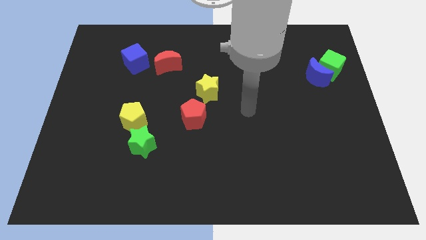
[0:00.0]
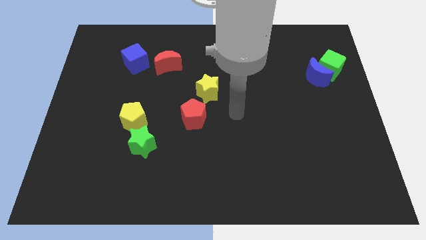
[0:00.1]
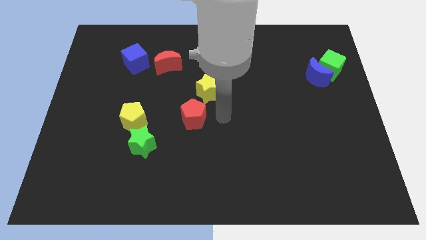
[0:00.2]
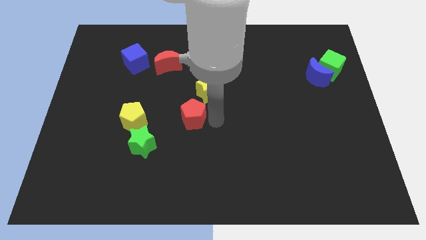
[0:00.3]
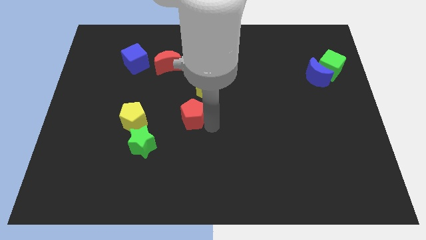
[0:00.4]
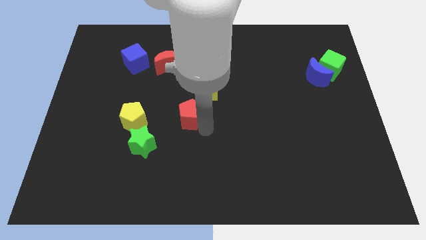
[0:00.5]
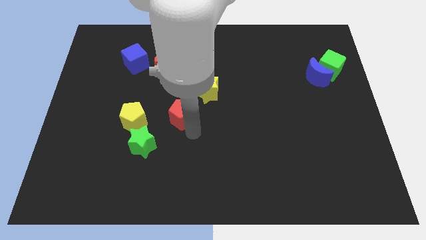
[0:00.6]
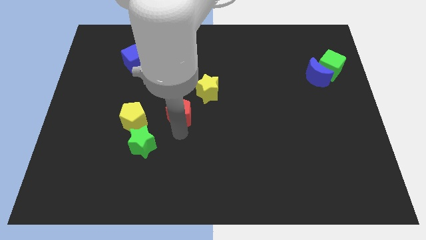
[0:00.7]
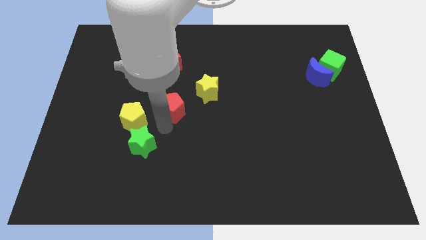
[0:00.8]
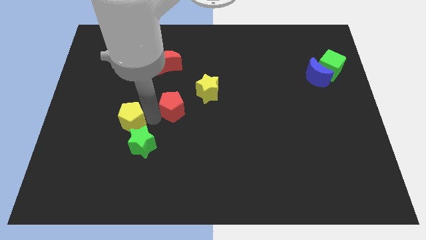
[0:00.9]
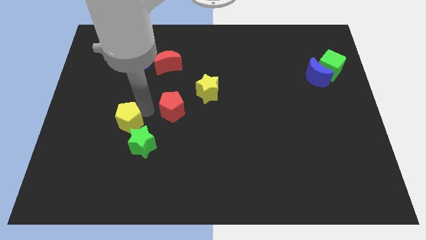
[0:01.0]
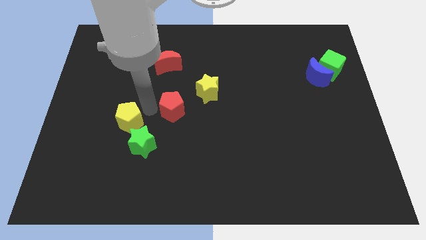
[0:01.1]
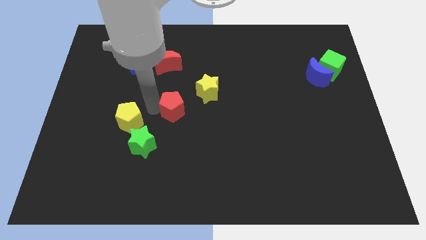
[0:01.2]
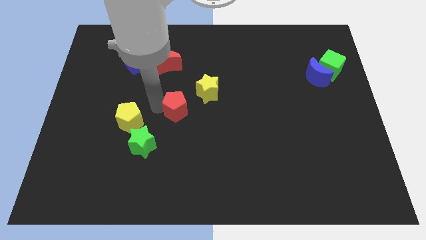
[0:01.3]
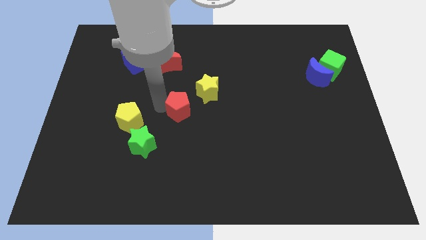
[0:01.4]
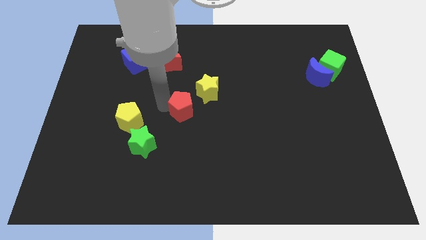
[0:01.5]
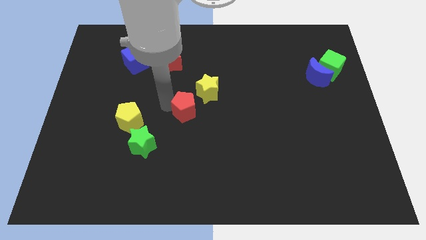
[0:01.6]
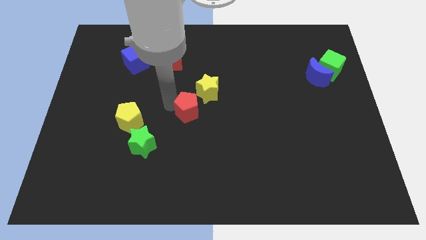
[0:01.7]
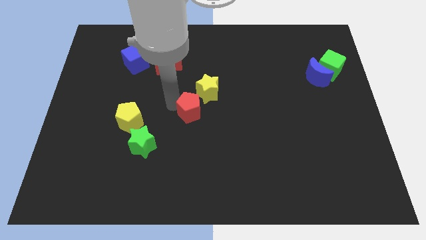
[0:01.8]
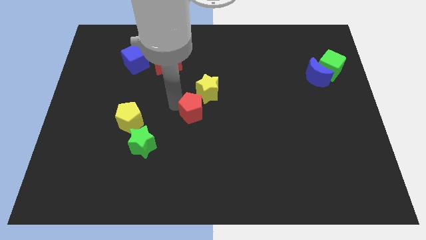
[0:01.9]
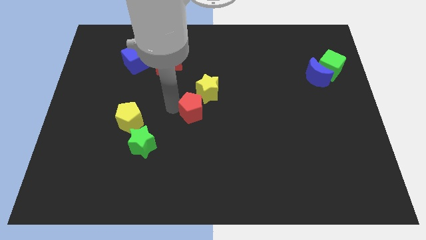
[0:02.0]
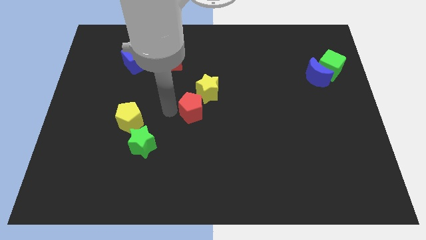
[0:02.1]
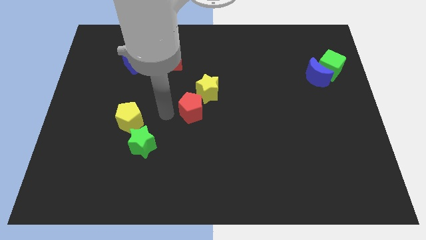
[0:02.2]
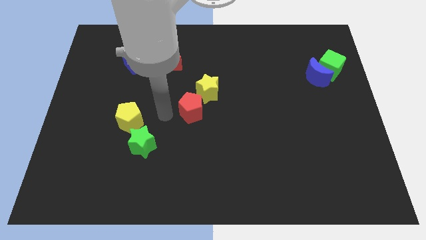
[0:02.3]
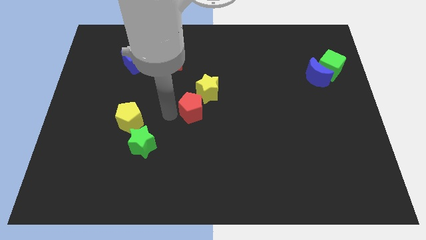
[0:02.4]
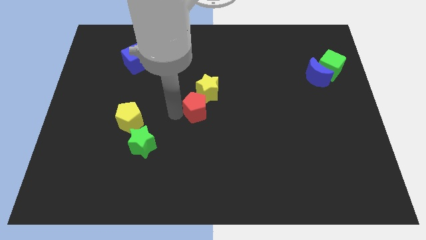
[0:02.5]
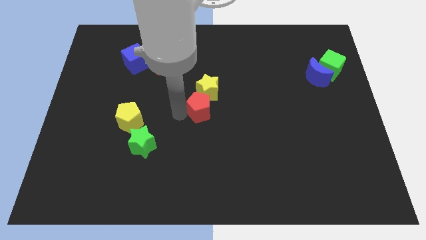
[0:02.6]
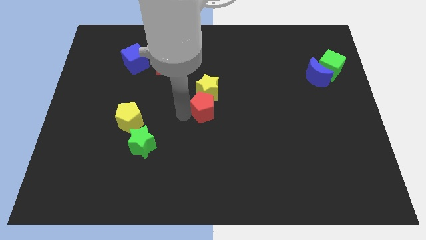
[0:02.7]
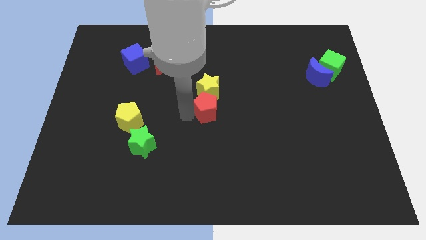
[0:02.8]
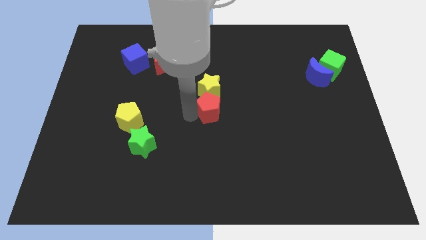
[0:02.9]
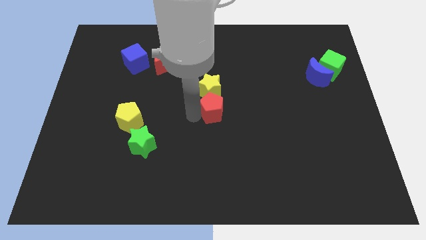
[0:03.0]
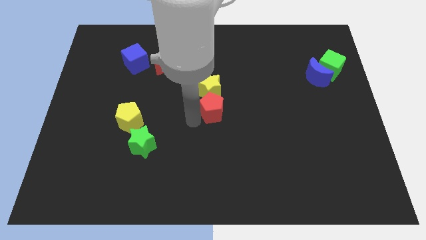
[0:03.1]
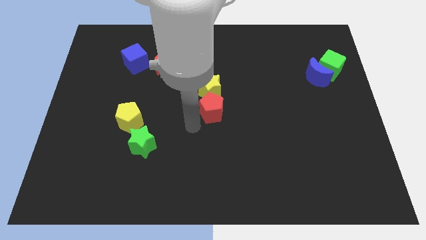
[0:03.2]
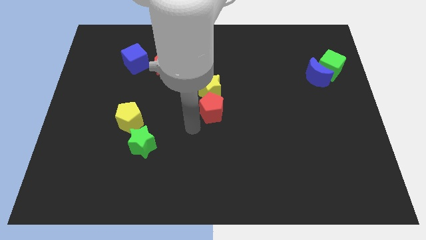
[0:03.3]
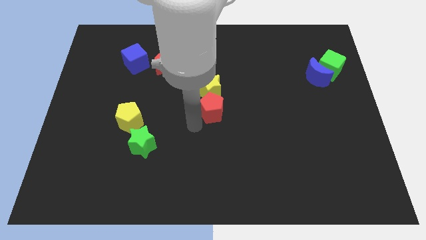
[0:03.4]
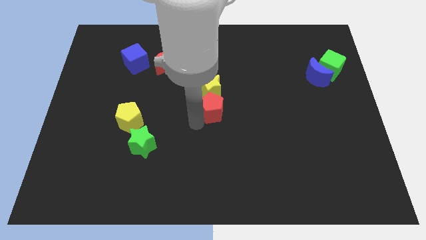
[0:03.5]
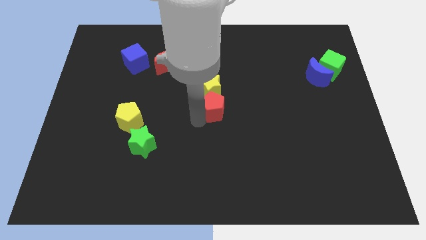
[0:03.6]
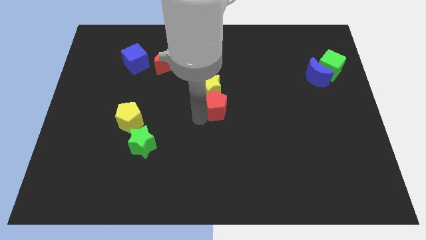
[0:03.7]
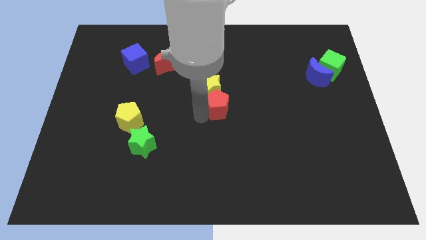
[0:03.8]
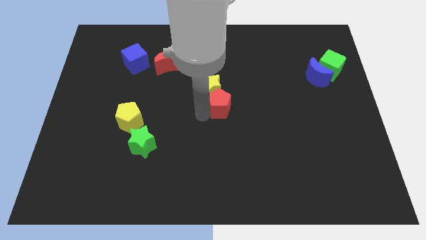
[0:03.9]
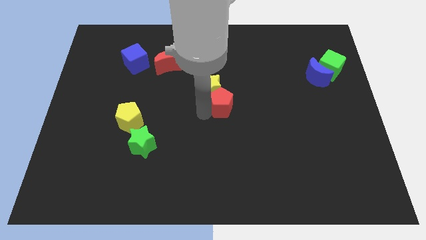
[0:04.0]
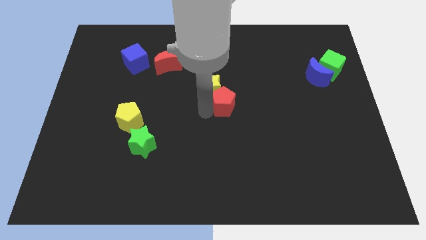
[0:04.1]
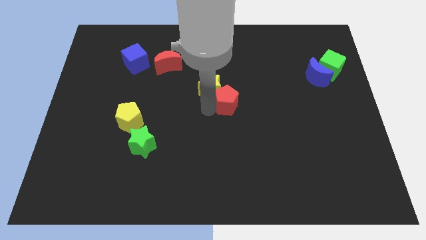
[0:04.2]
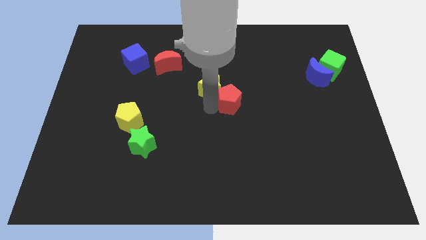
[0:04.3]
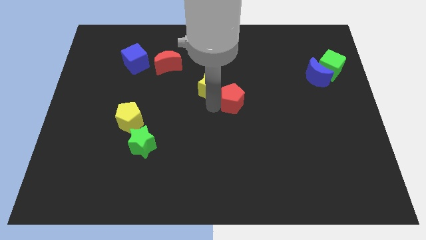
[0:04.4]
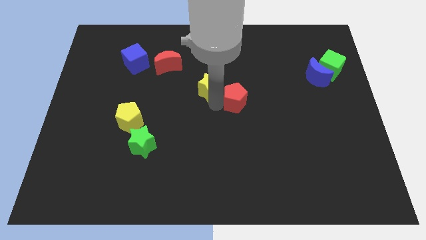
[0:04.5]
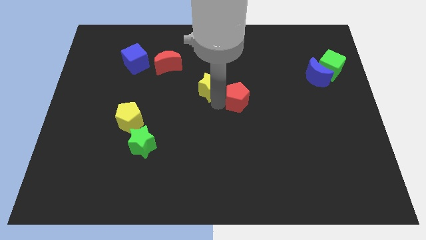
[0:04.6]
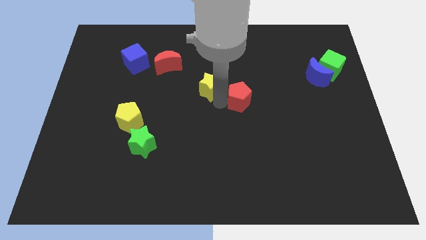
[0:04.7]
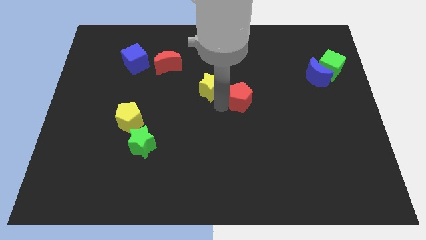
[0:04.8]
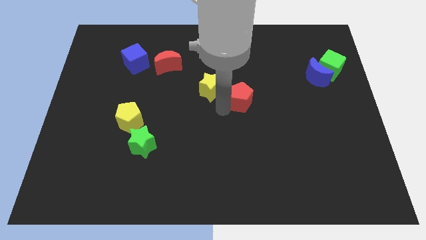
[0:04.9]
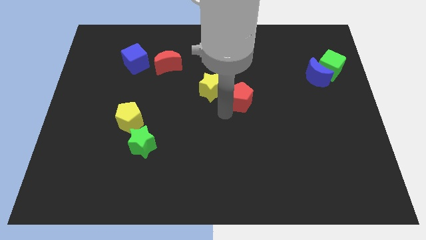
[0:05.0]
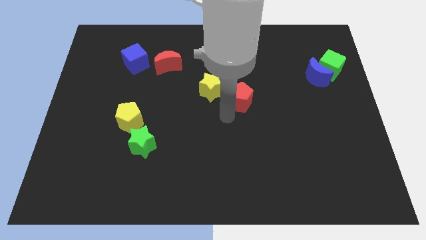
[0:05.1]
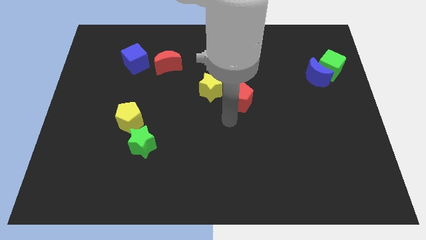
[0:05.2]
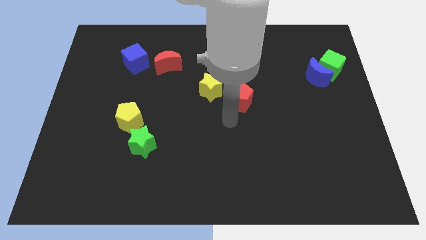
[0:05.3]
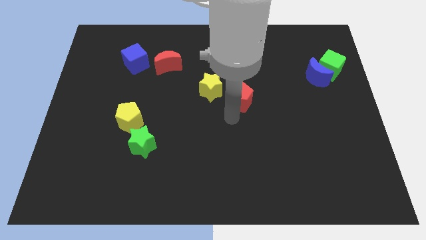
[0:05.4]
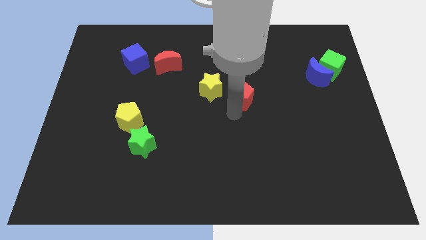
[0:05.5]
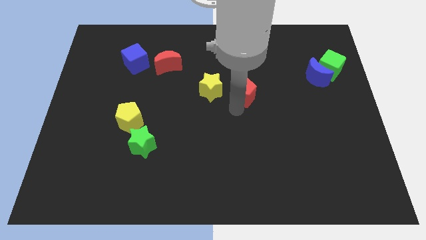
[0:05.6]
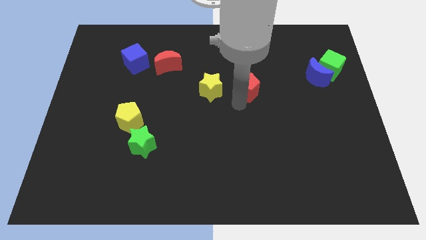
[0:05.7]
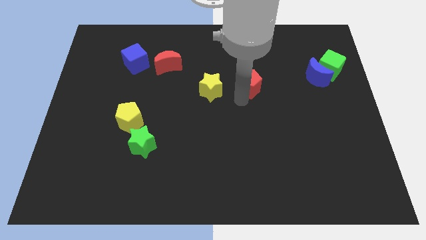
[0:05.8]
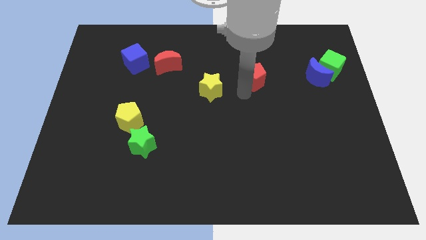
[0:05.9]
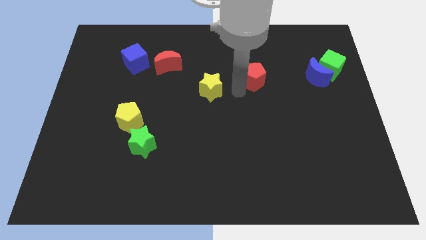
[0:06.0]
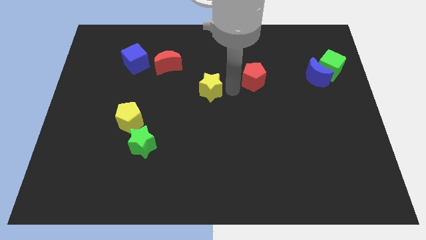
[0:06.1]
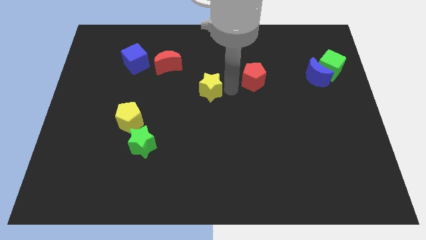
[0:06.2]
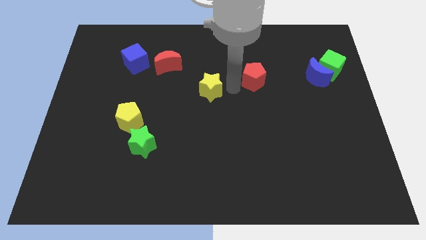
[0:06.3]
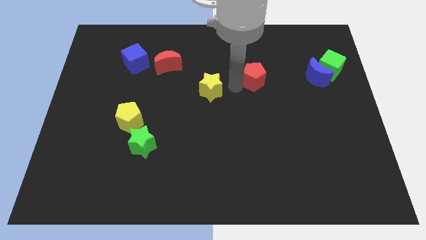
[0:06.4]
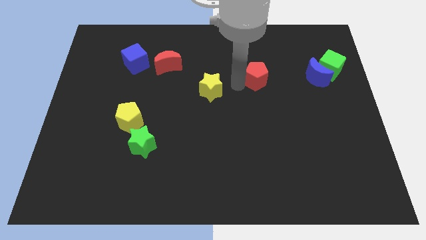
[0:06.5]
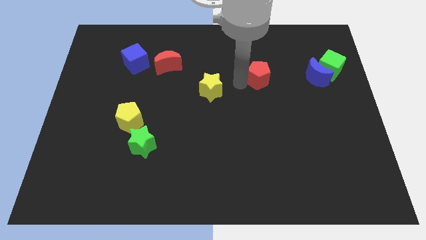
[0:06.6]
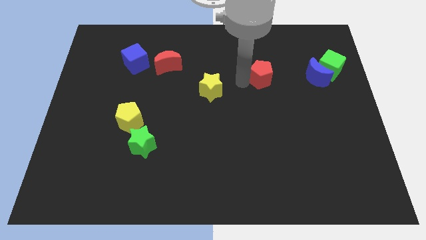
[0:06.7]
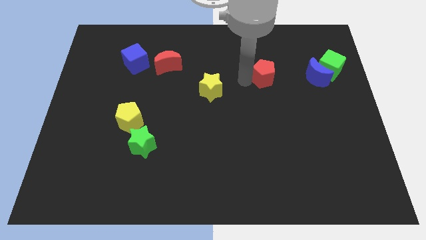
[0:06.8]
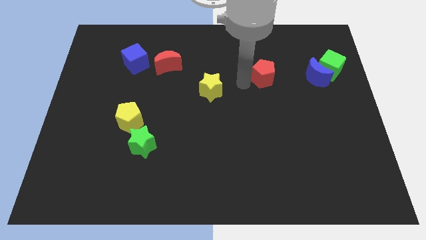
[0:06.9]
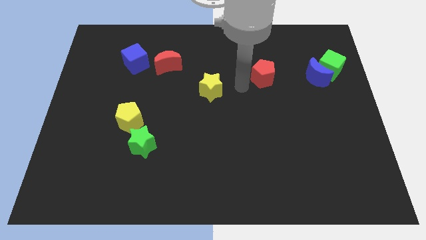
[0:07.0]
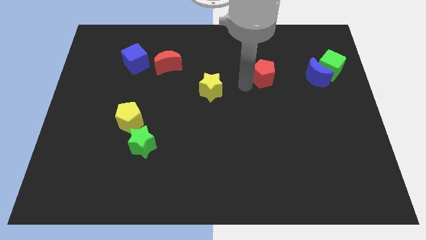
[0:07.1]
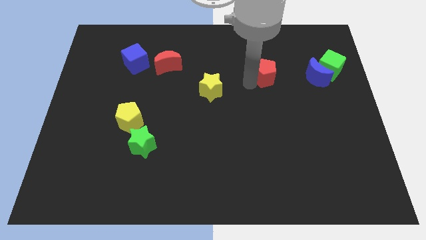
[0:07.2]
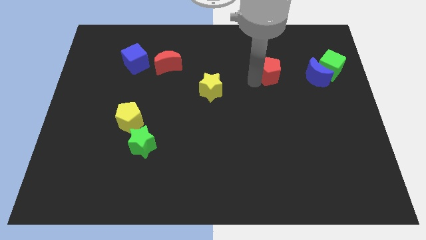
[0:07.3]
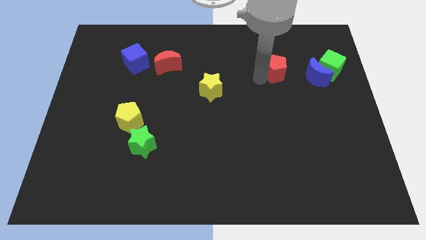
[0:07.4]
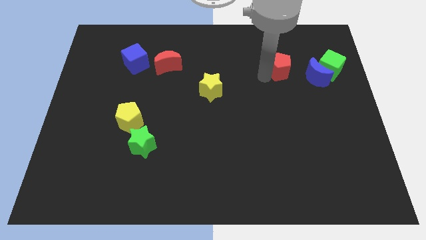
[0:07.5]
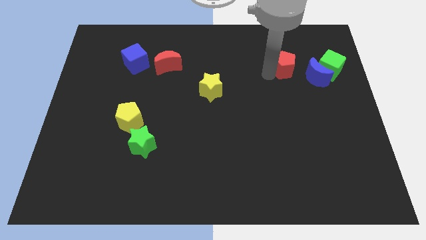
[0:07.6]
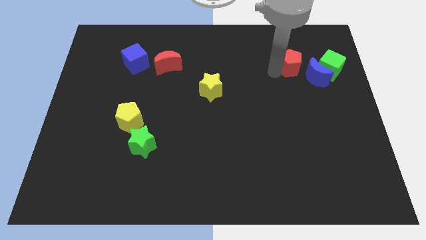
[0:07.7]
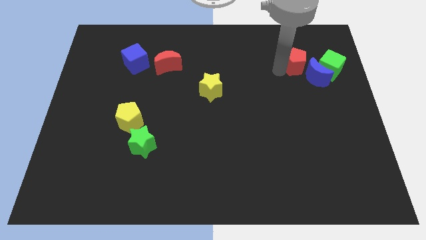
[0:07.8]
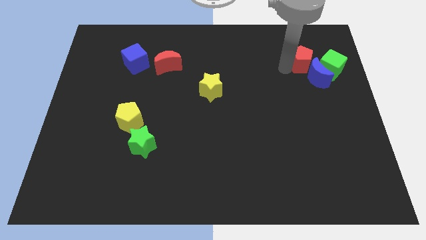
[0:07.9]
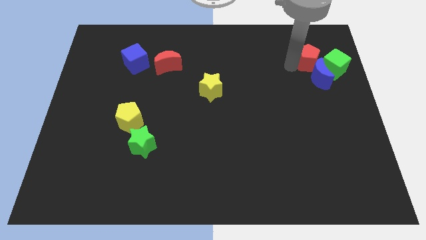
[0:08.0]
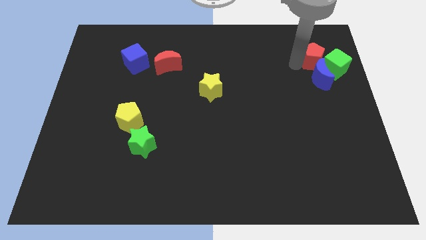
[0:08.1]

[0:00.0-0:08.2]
put the red pentagon next to the green cube
